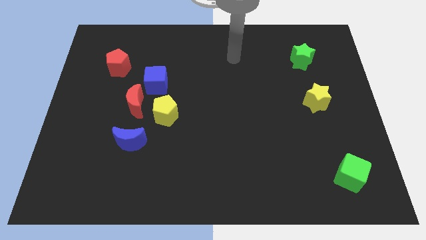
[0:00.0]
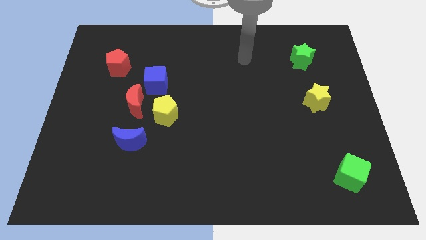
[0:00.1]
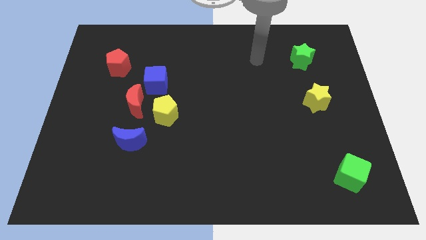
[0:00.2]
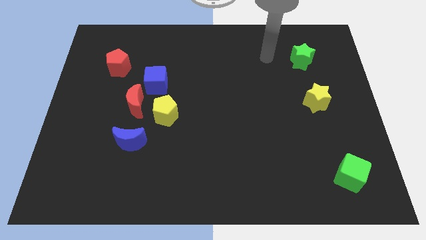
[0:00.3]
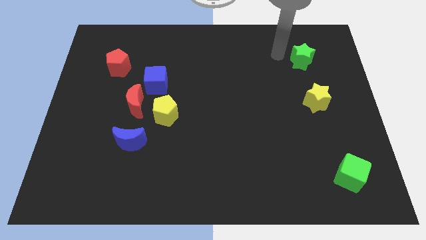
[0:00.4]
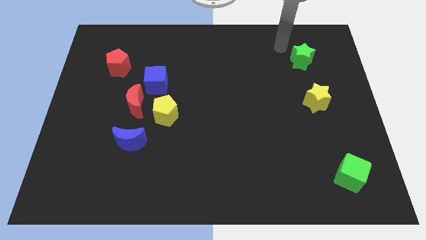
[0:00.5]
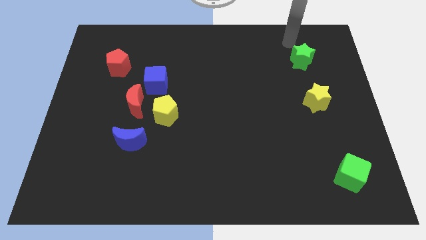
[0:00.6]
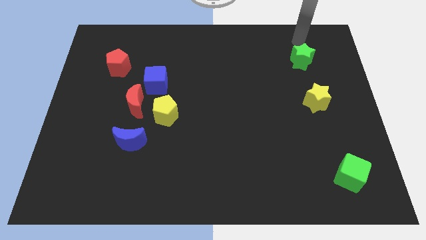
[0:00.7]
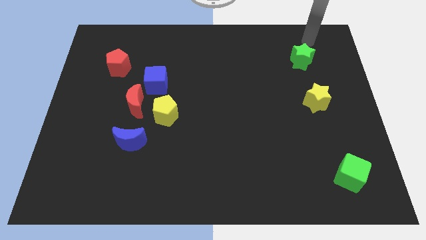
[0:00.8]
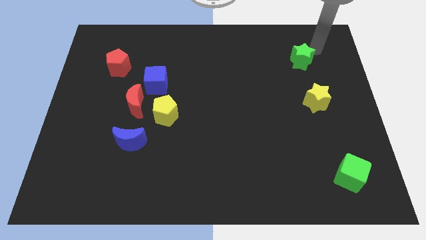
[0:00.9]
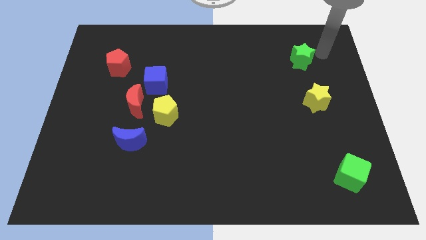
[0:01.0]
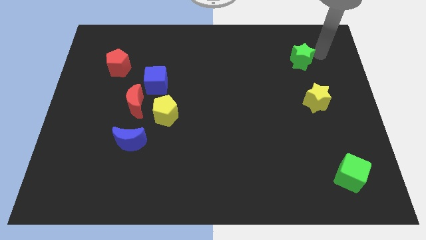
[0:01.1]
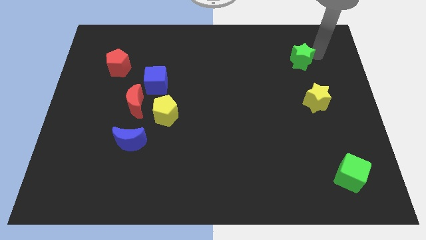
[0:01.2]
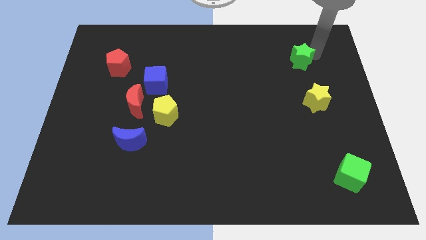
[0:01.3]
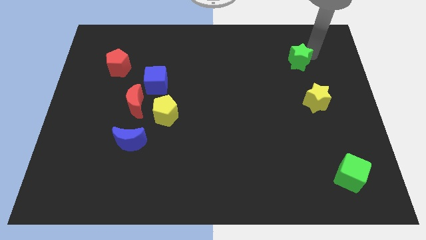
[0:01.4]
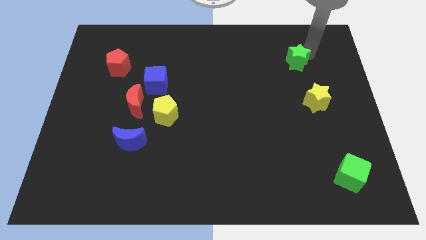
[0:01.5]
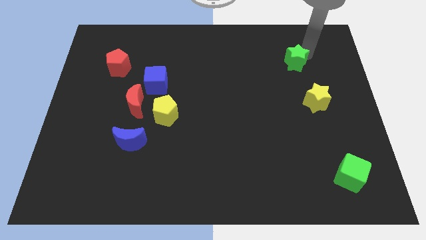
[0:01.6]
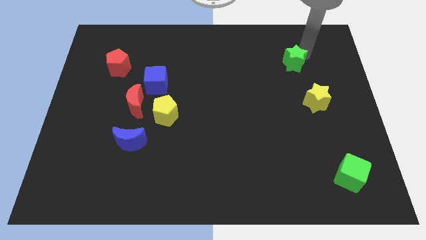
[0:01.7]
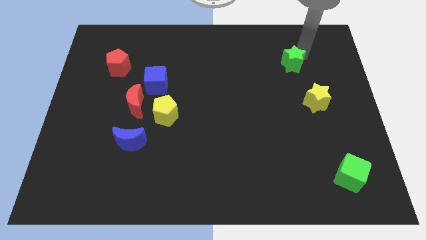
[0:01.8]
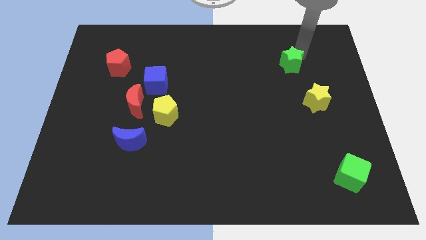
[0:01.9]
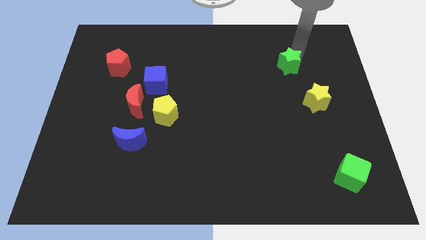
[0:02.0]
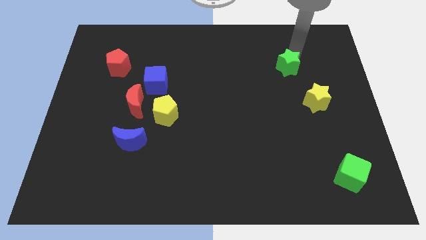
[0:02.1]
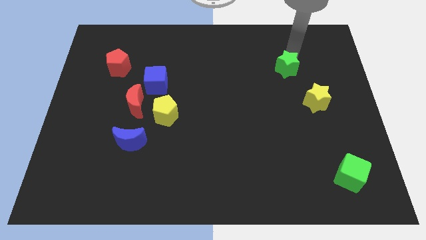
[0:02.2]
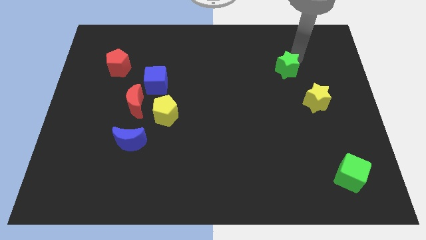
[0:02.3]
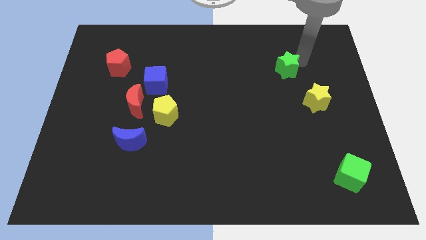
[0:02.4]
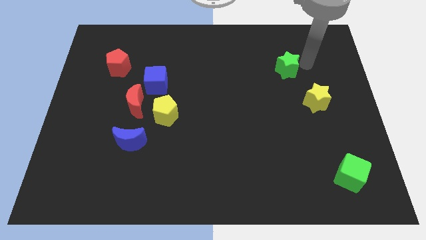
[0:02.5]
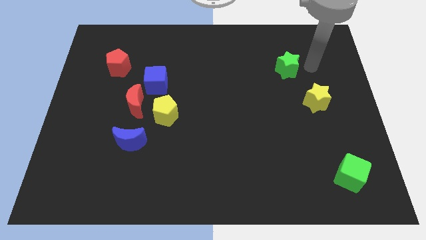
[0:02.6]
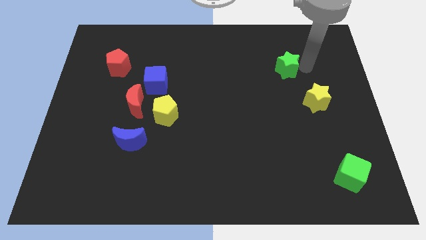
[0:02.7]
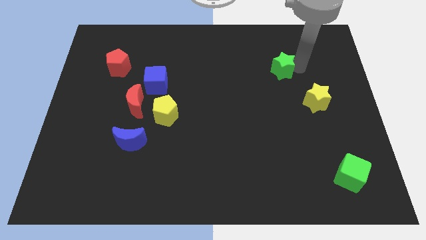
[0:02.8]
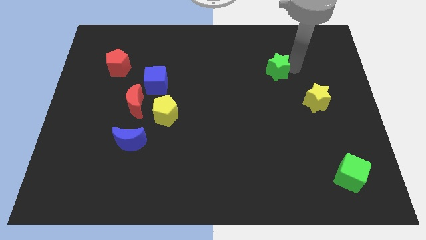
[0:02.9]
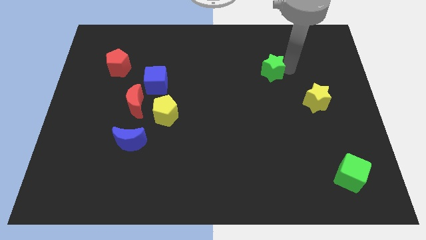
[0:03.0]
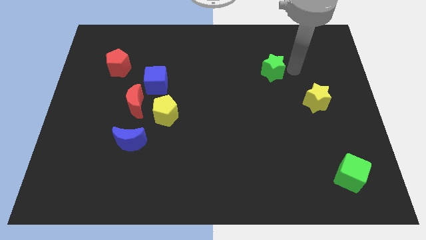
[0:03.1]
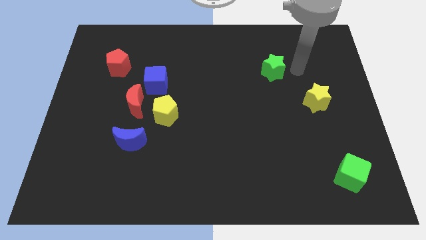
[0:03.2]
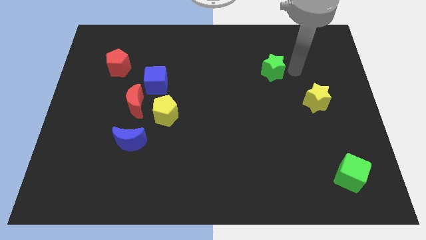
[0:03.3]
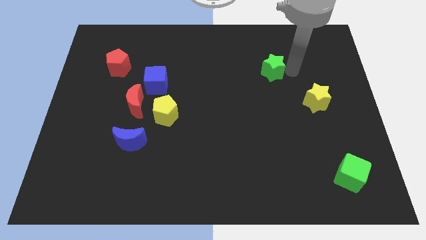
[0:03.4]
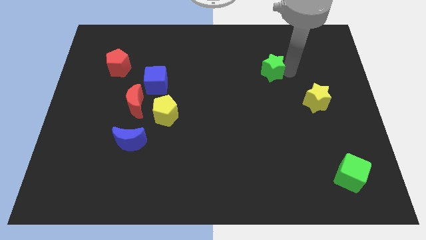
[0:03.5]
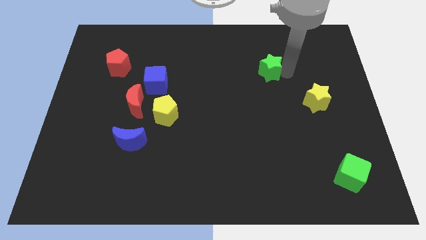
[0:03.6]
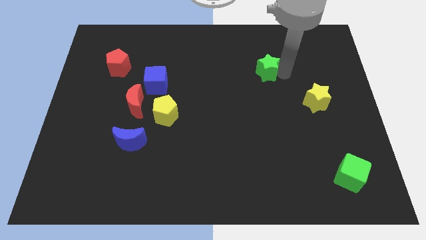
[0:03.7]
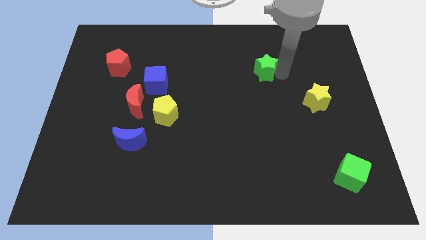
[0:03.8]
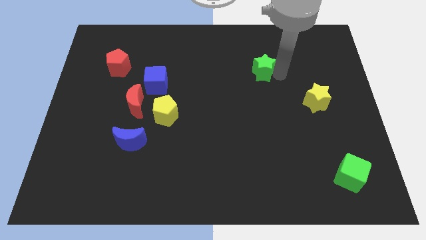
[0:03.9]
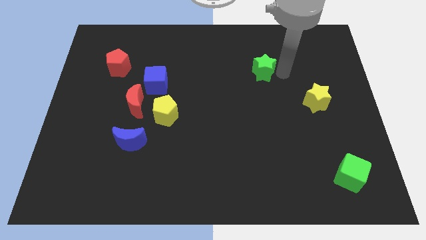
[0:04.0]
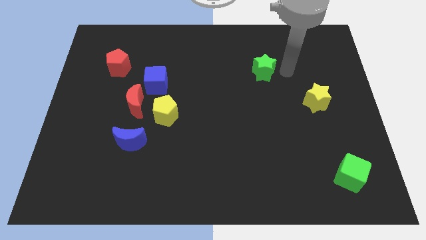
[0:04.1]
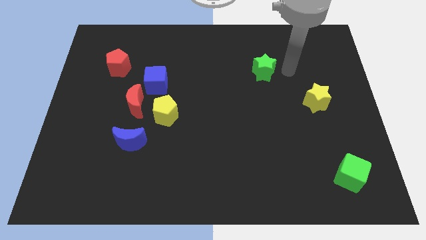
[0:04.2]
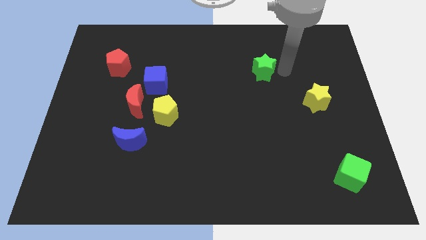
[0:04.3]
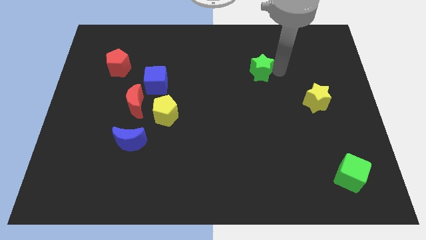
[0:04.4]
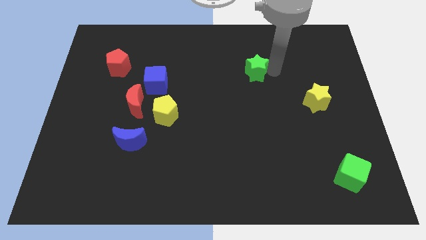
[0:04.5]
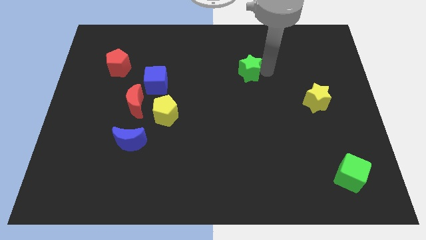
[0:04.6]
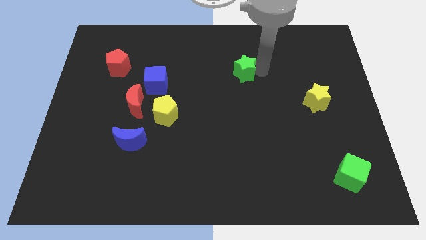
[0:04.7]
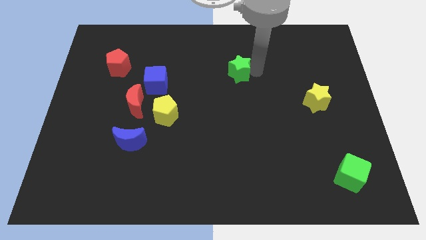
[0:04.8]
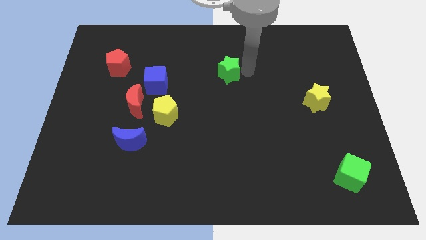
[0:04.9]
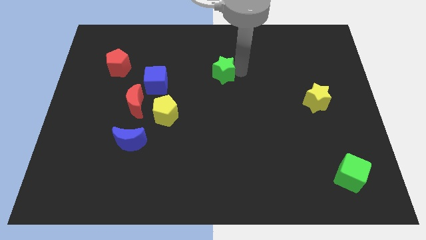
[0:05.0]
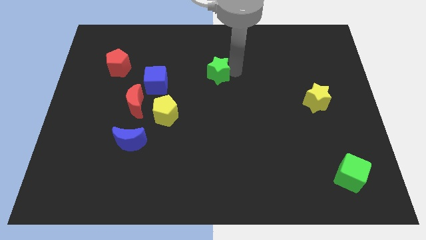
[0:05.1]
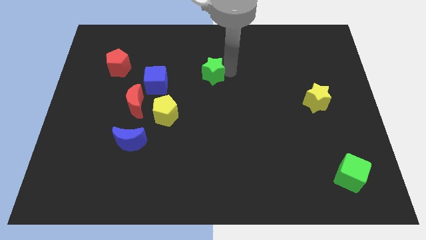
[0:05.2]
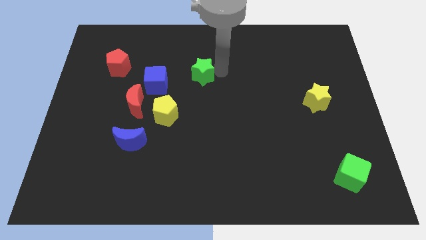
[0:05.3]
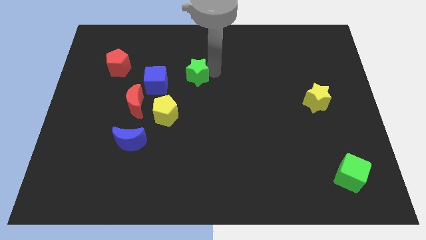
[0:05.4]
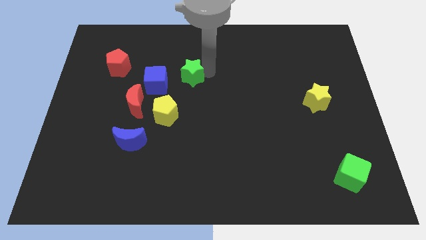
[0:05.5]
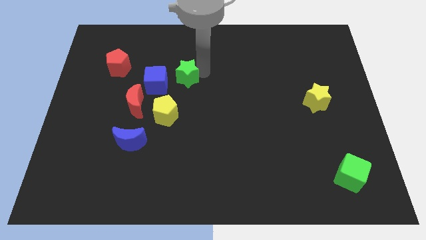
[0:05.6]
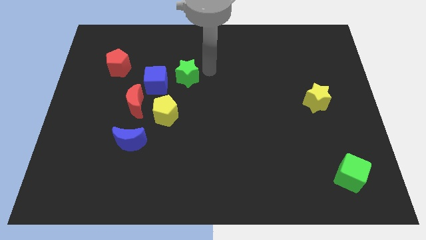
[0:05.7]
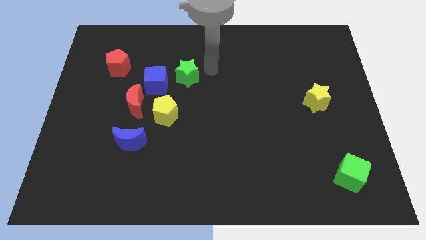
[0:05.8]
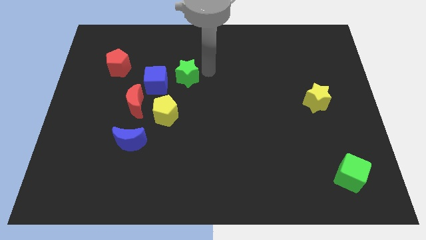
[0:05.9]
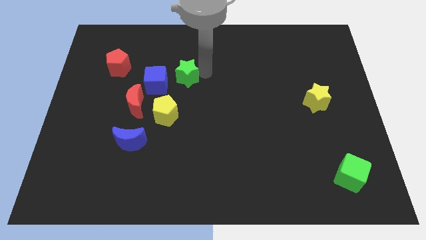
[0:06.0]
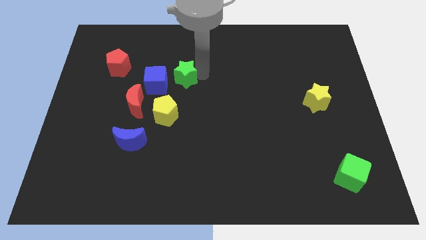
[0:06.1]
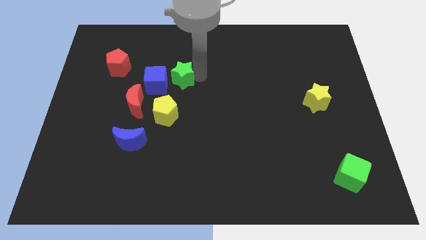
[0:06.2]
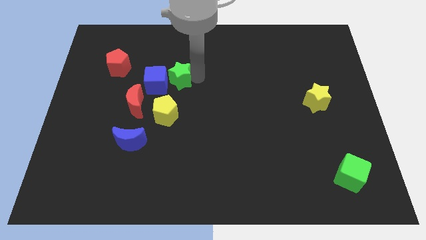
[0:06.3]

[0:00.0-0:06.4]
slide the green star to the blue cube

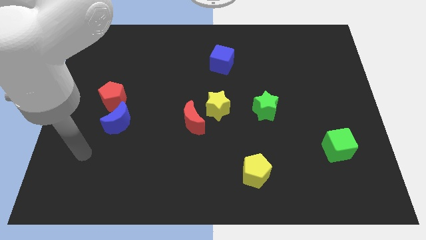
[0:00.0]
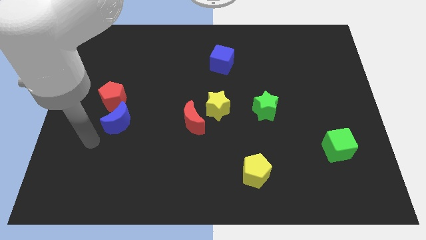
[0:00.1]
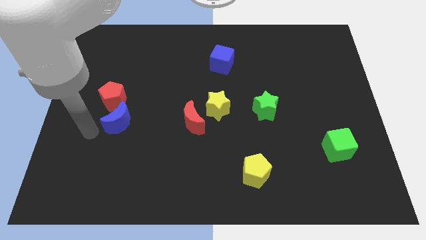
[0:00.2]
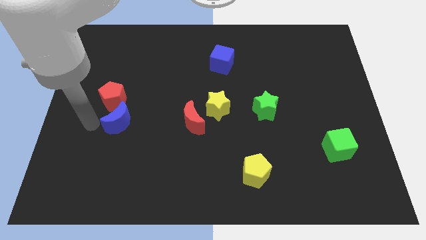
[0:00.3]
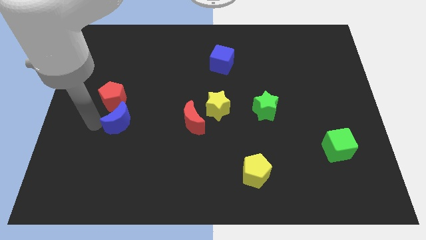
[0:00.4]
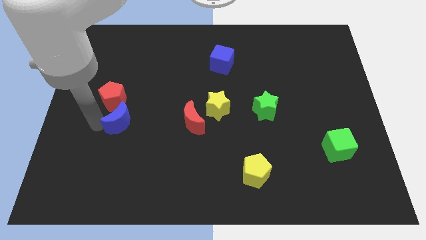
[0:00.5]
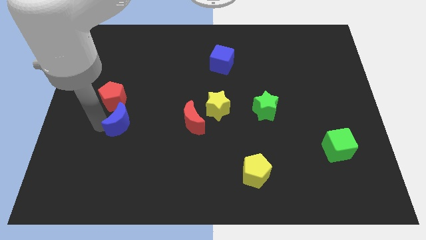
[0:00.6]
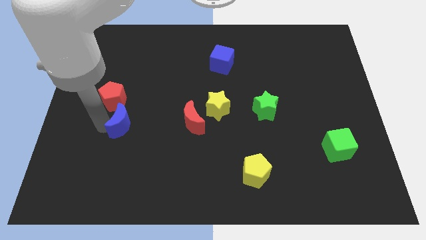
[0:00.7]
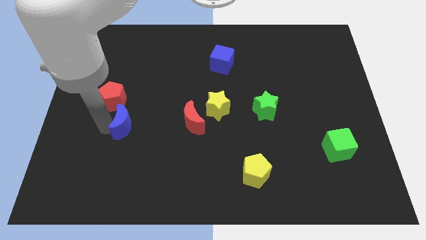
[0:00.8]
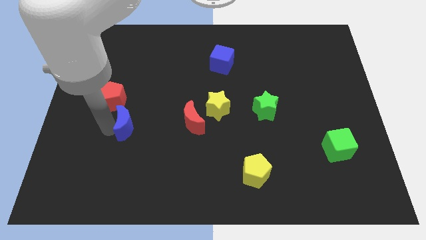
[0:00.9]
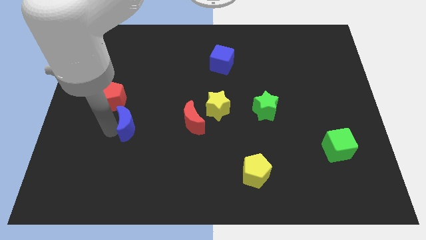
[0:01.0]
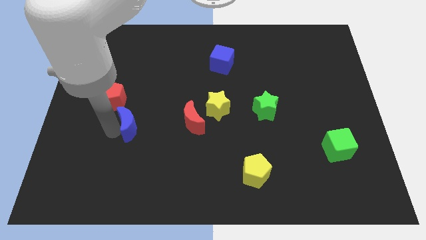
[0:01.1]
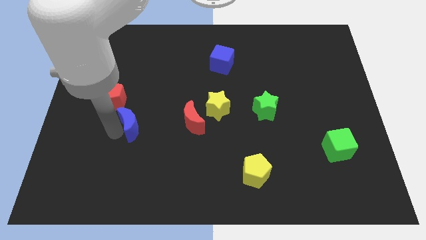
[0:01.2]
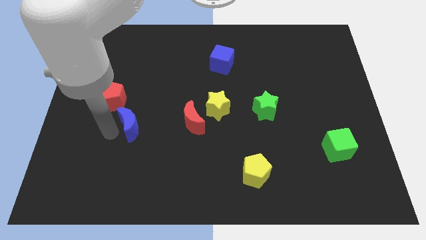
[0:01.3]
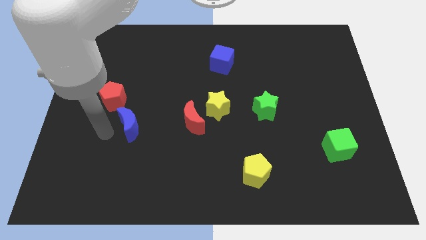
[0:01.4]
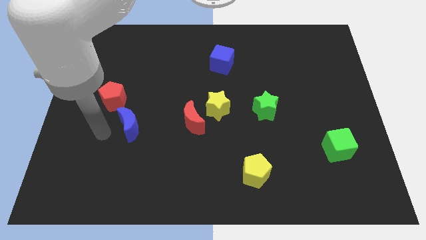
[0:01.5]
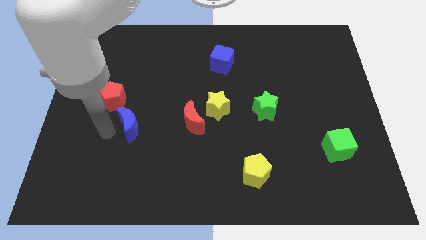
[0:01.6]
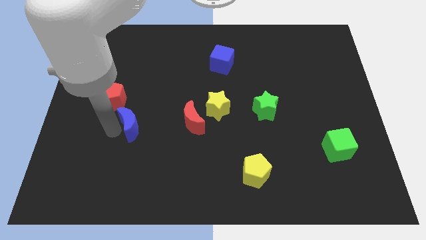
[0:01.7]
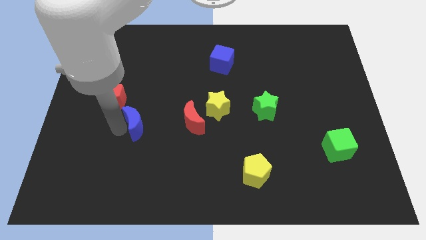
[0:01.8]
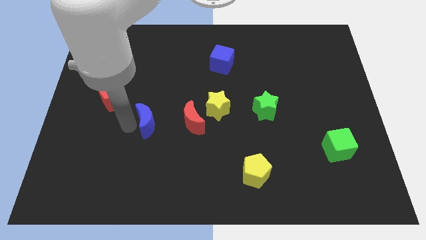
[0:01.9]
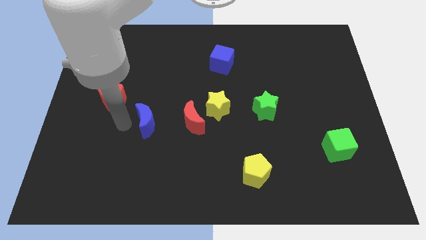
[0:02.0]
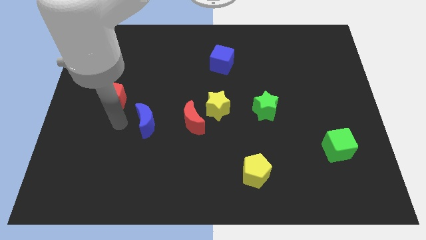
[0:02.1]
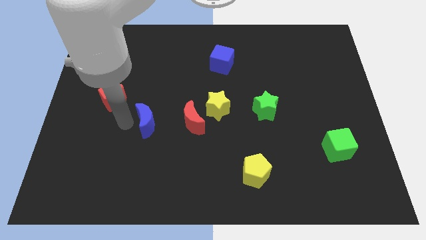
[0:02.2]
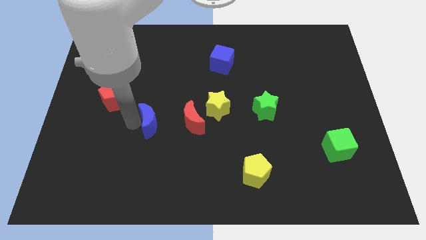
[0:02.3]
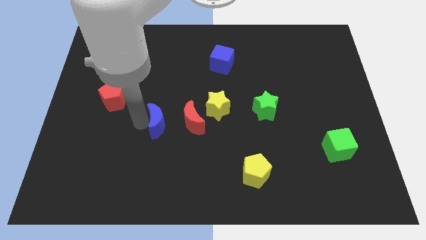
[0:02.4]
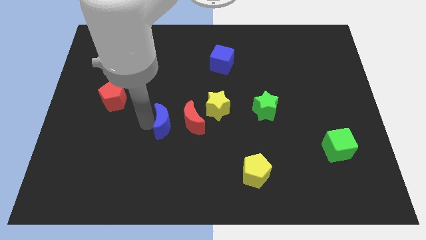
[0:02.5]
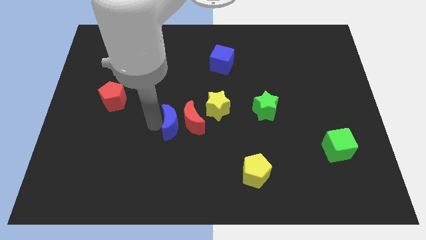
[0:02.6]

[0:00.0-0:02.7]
push the blue moon close to the red moon
